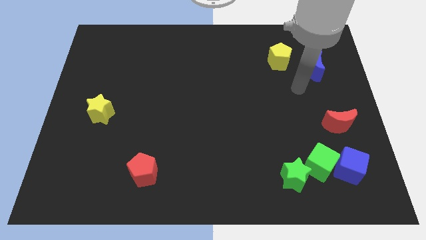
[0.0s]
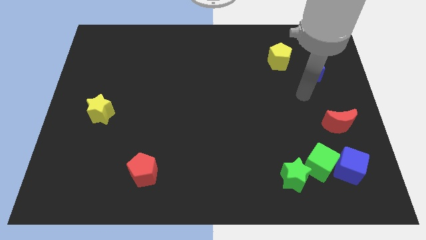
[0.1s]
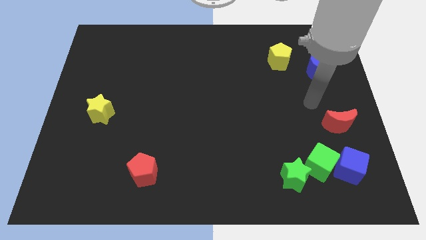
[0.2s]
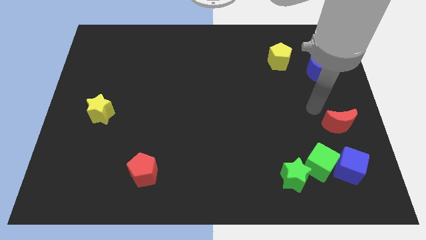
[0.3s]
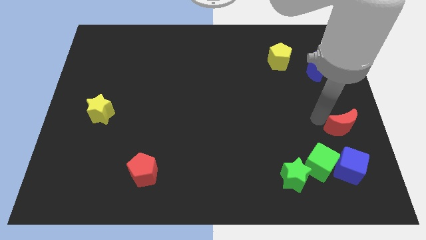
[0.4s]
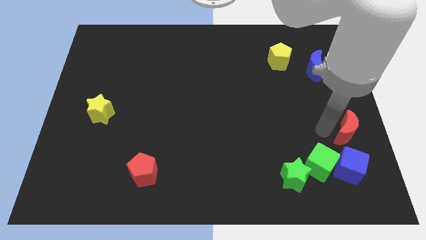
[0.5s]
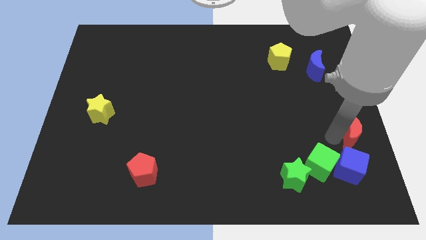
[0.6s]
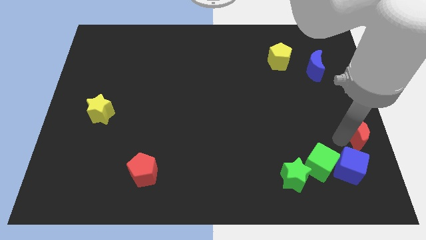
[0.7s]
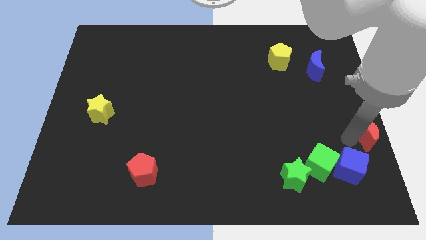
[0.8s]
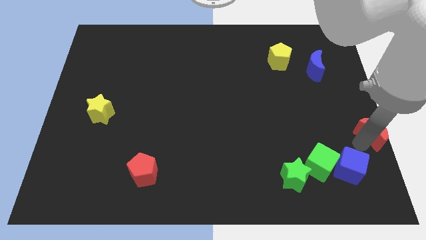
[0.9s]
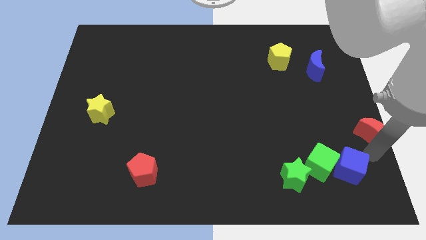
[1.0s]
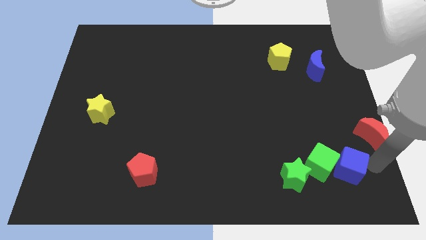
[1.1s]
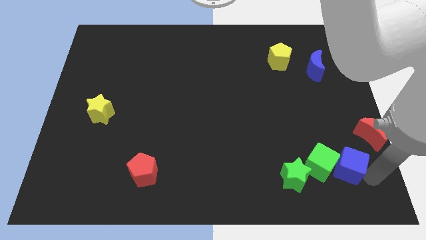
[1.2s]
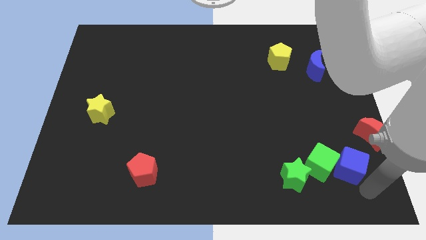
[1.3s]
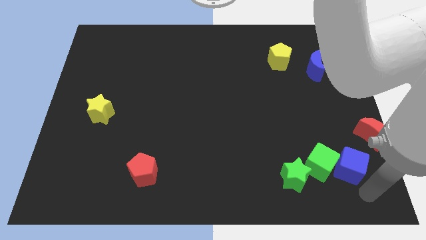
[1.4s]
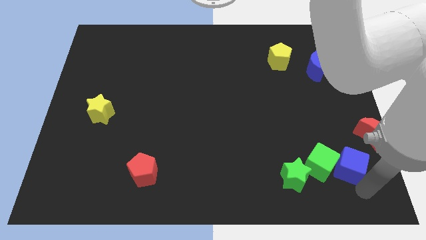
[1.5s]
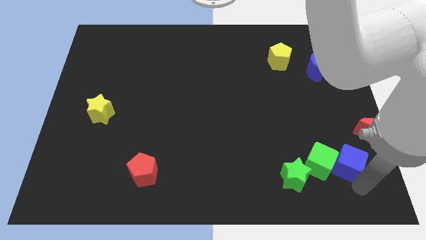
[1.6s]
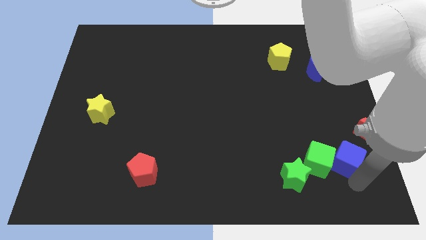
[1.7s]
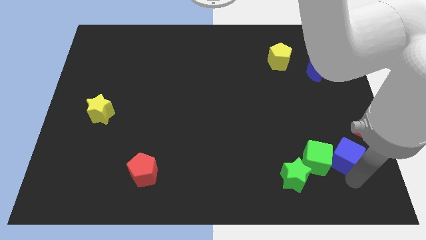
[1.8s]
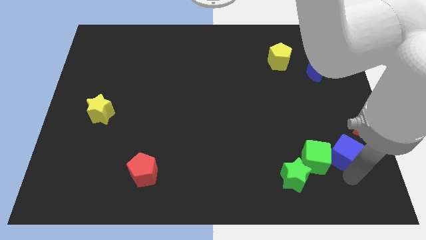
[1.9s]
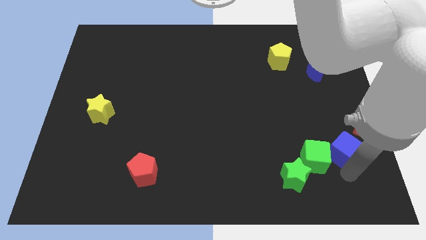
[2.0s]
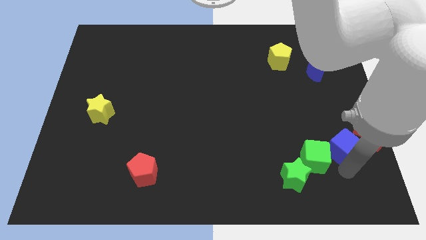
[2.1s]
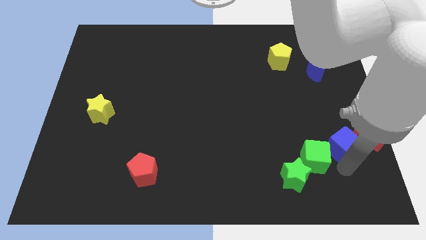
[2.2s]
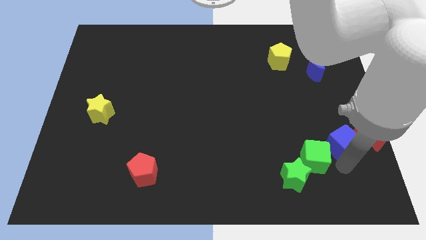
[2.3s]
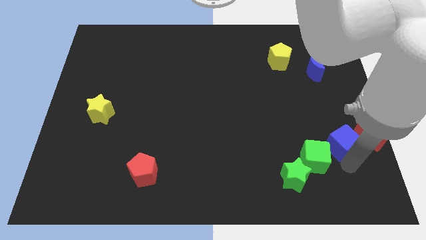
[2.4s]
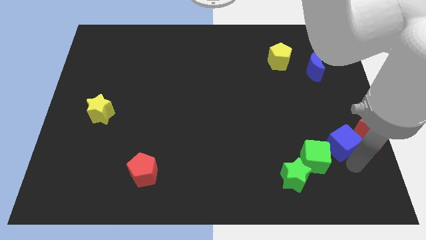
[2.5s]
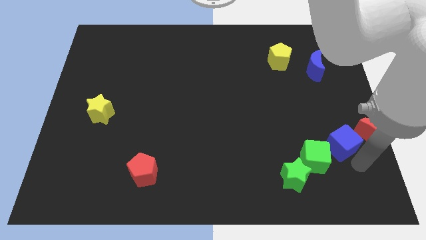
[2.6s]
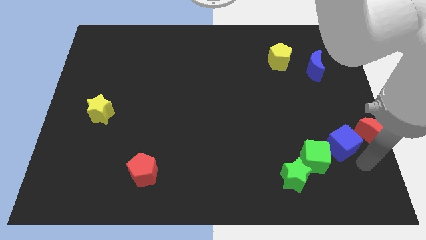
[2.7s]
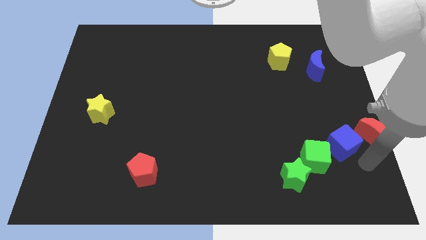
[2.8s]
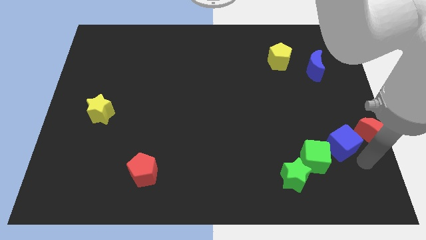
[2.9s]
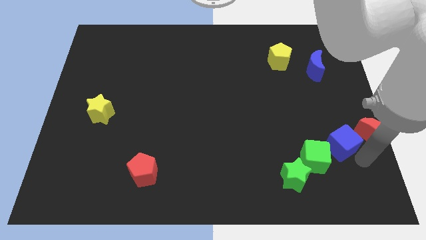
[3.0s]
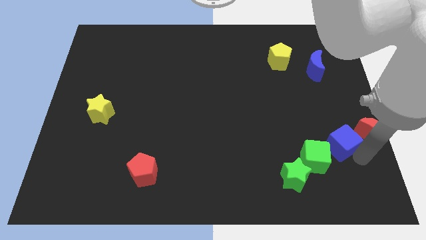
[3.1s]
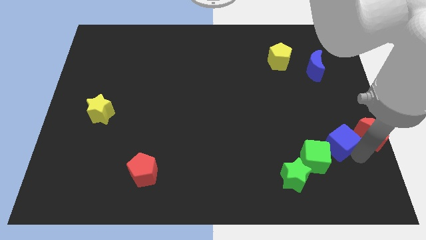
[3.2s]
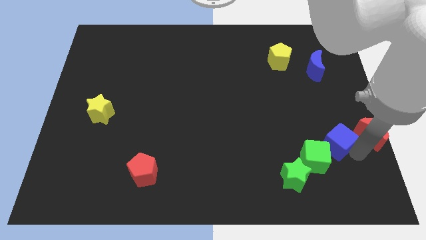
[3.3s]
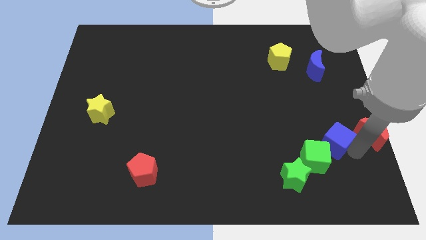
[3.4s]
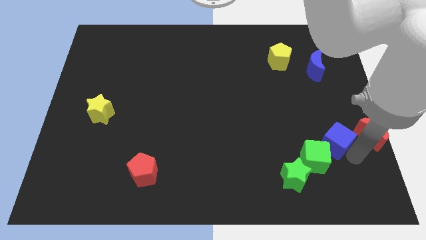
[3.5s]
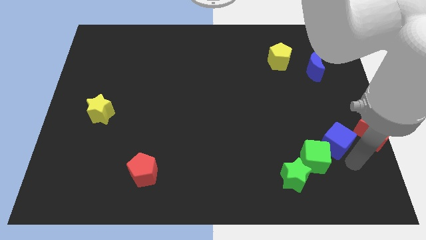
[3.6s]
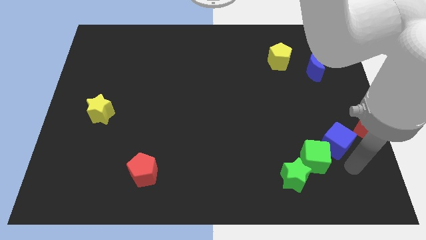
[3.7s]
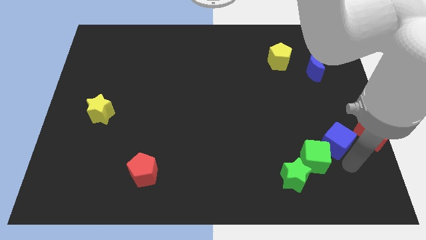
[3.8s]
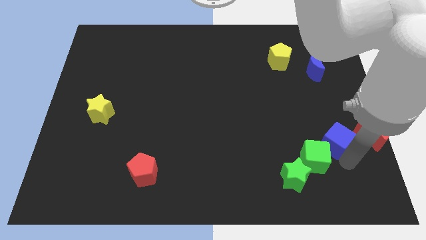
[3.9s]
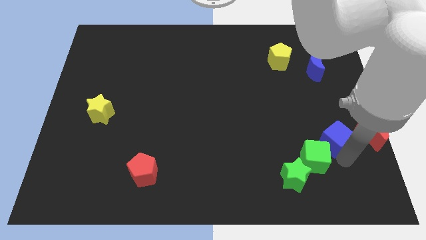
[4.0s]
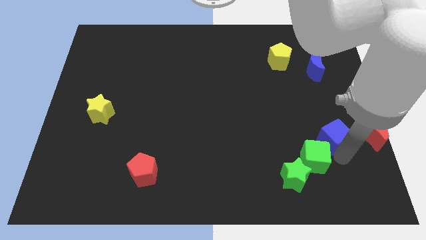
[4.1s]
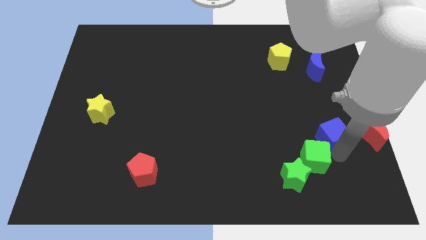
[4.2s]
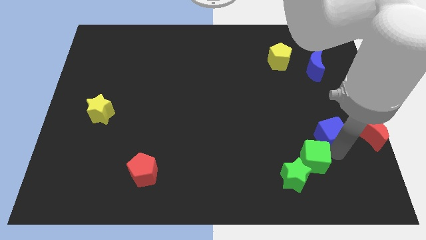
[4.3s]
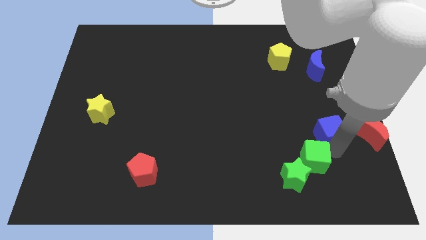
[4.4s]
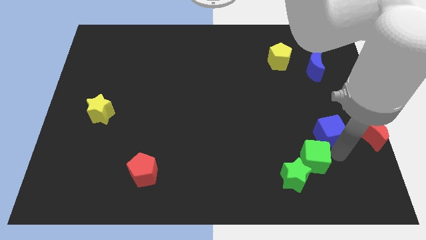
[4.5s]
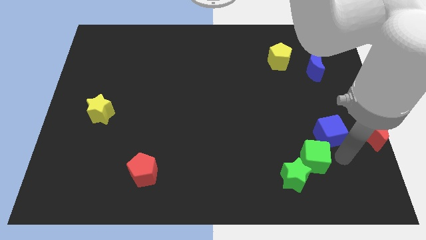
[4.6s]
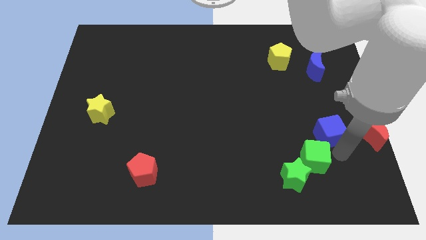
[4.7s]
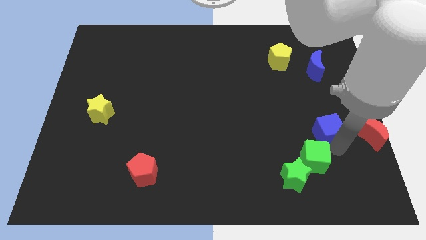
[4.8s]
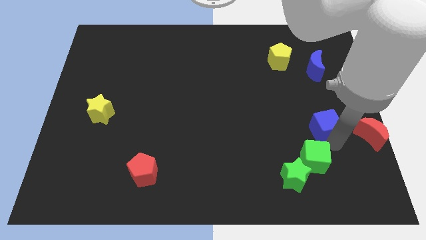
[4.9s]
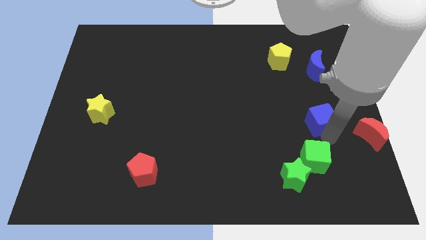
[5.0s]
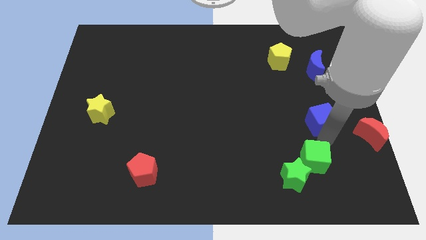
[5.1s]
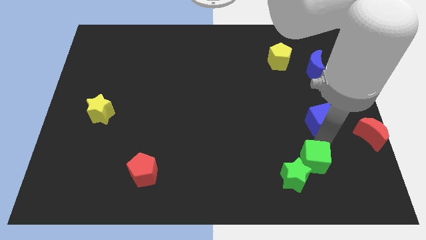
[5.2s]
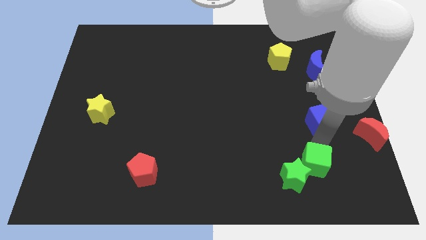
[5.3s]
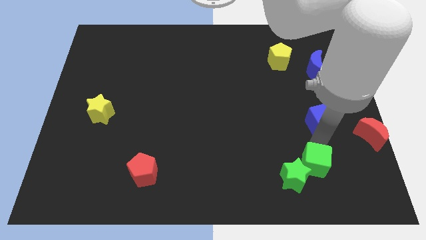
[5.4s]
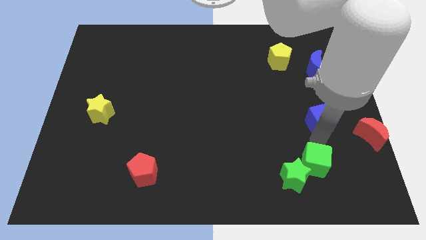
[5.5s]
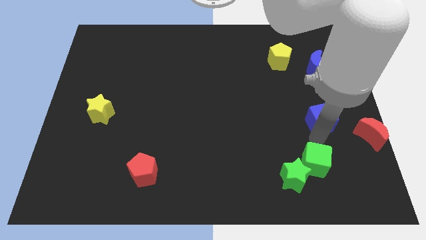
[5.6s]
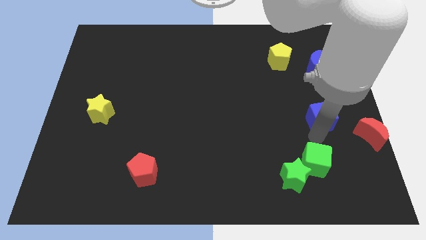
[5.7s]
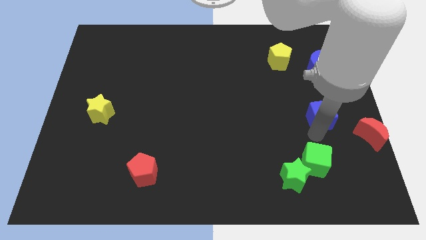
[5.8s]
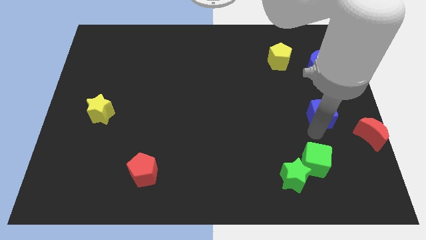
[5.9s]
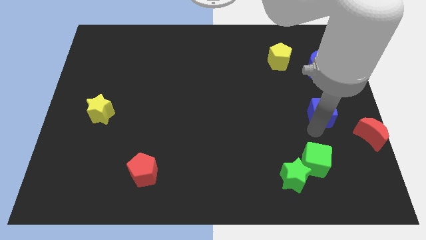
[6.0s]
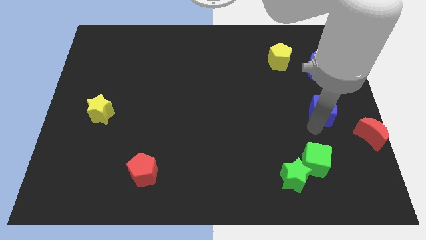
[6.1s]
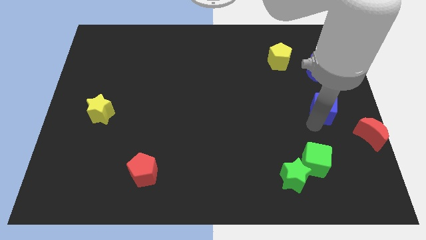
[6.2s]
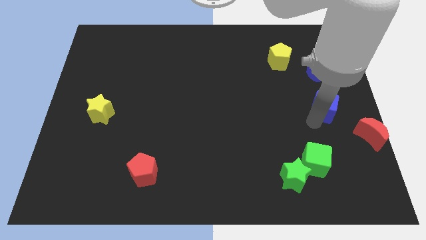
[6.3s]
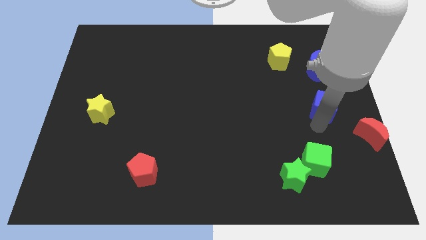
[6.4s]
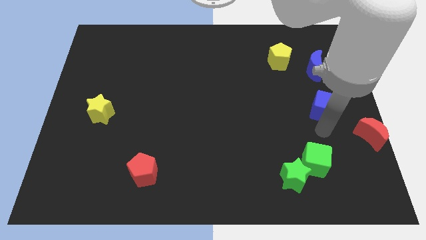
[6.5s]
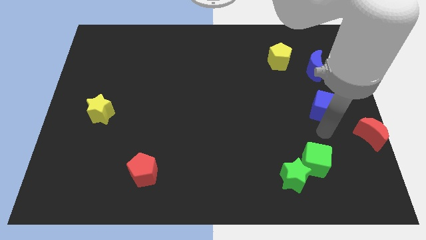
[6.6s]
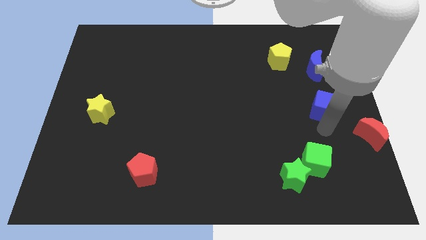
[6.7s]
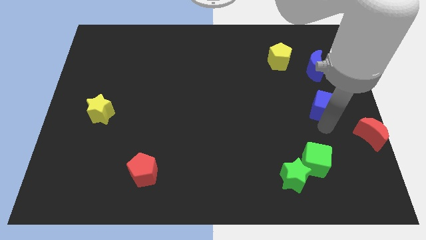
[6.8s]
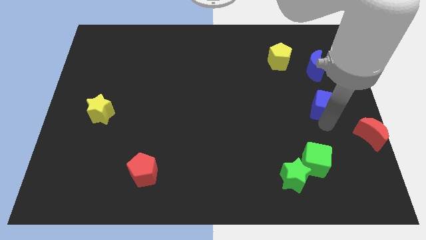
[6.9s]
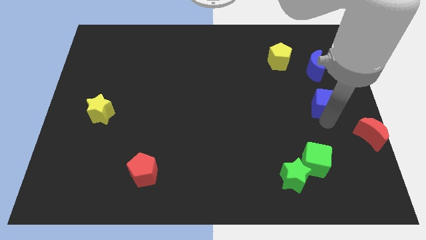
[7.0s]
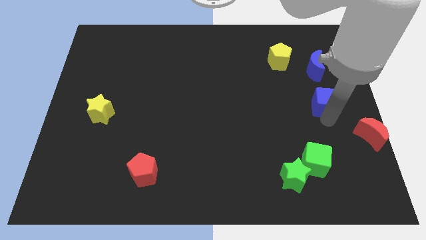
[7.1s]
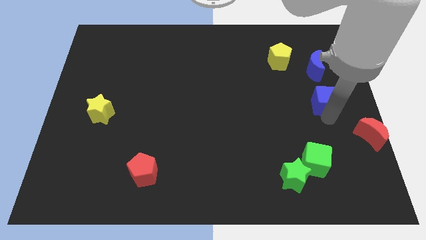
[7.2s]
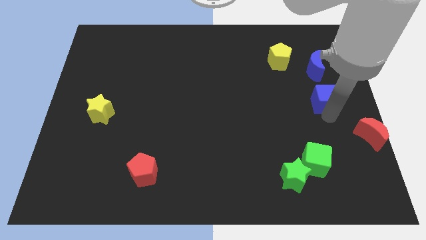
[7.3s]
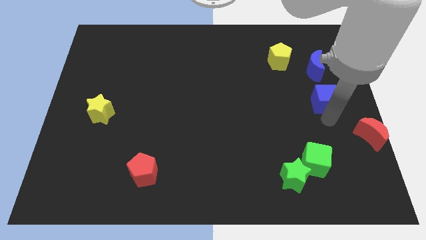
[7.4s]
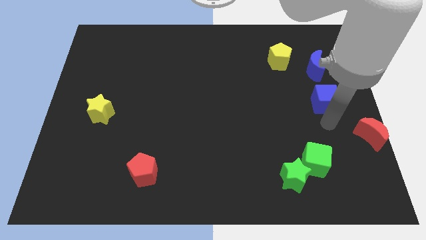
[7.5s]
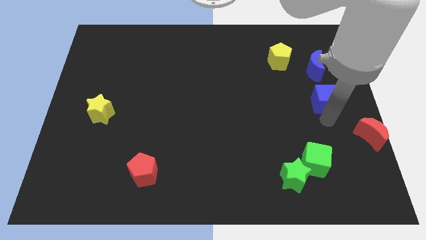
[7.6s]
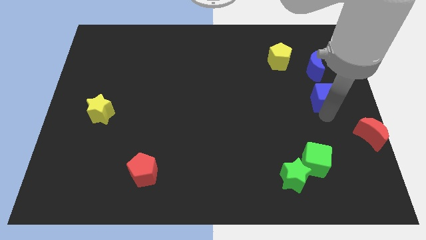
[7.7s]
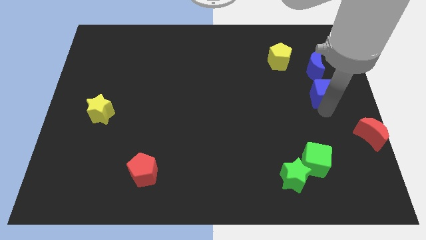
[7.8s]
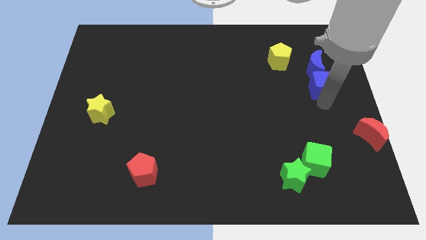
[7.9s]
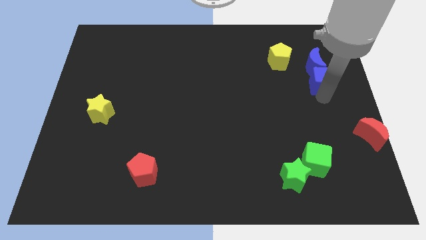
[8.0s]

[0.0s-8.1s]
put the blue cube to the blue moon
